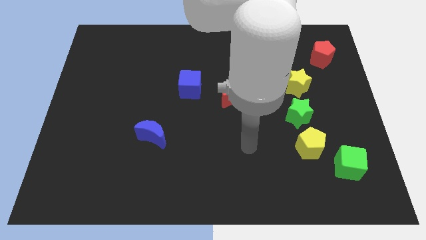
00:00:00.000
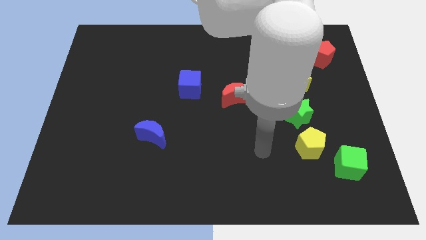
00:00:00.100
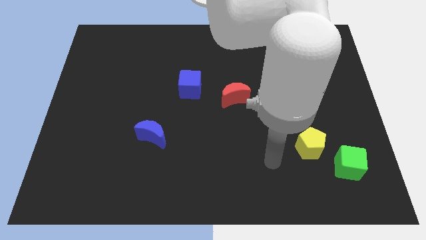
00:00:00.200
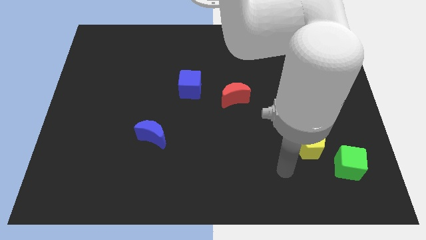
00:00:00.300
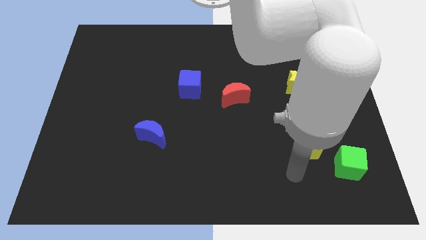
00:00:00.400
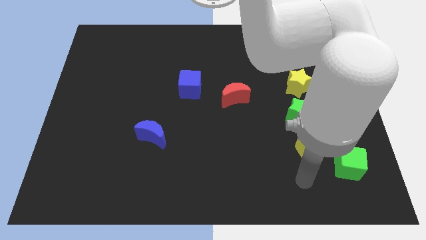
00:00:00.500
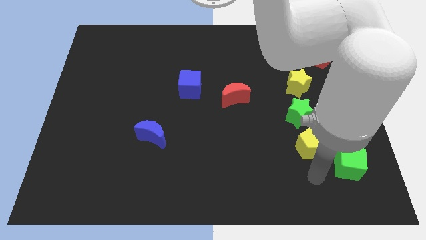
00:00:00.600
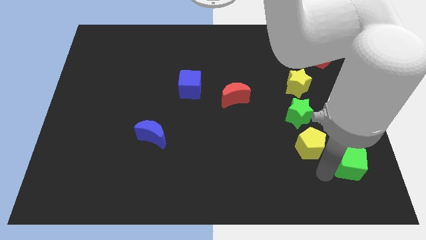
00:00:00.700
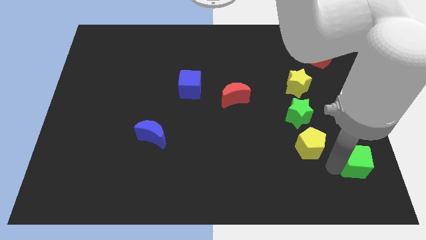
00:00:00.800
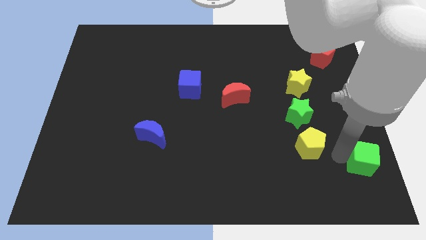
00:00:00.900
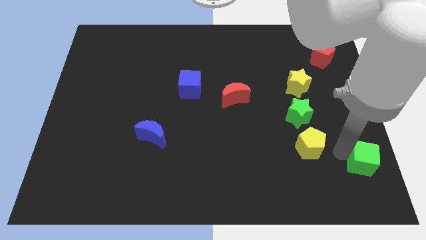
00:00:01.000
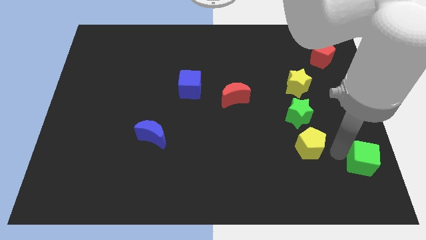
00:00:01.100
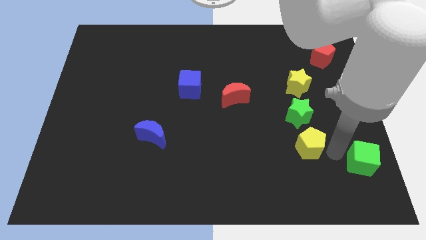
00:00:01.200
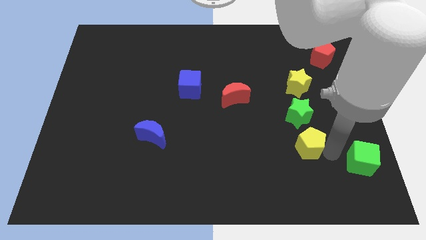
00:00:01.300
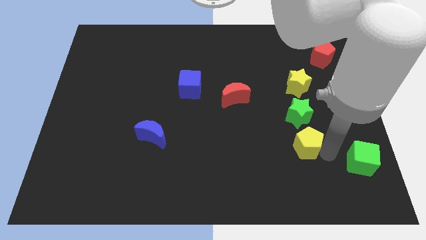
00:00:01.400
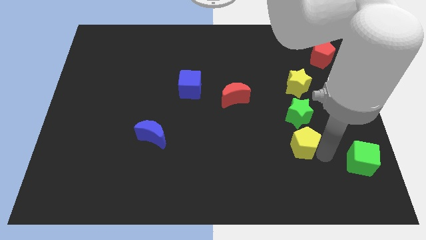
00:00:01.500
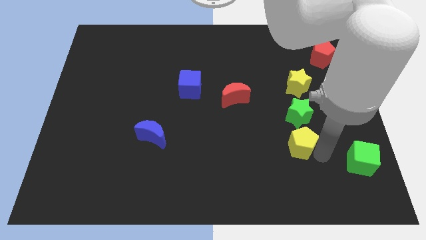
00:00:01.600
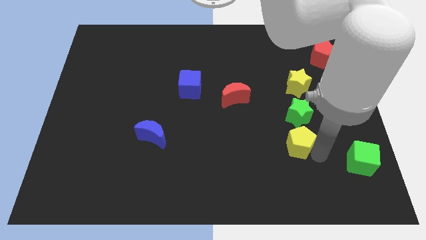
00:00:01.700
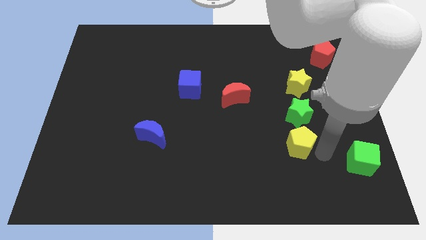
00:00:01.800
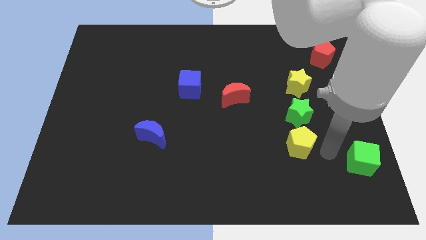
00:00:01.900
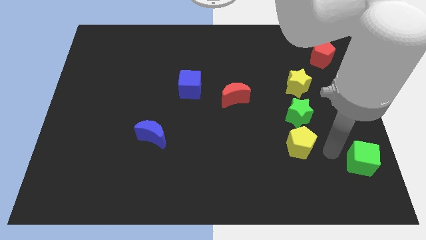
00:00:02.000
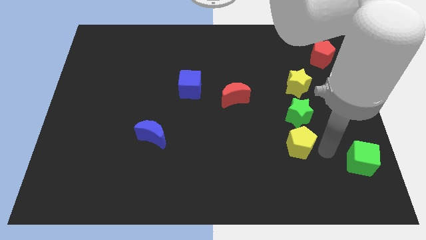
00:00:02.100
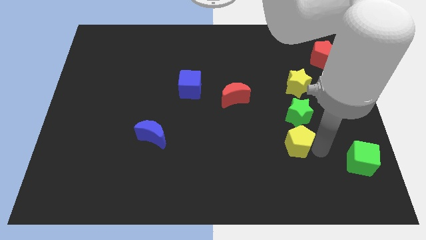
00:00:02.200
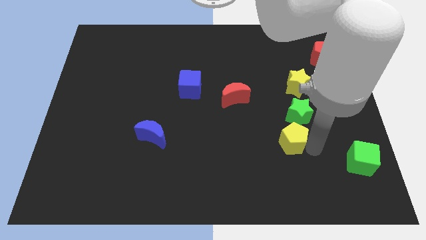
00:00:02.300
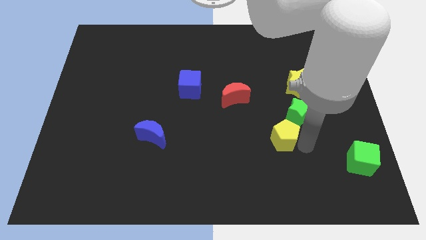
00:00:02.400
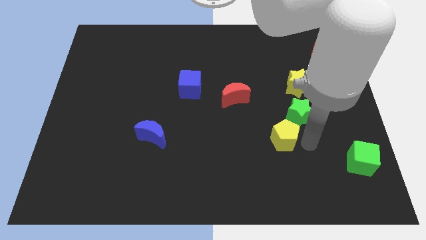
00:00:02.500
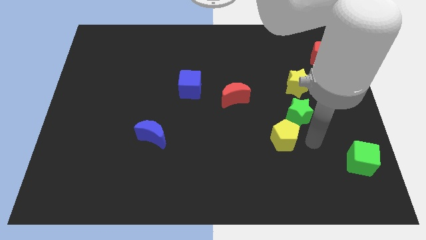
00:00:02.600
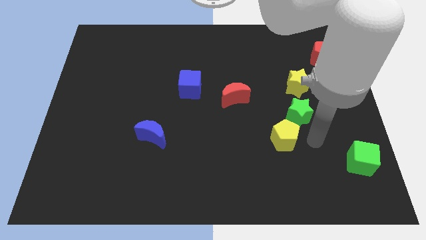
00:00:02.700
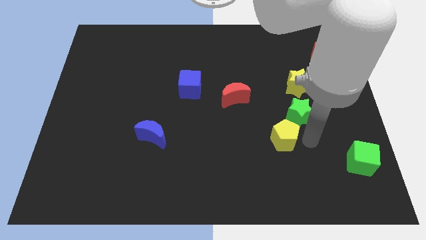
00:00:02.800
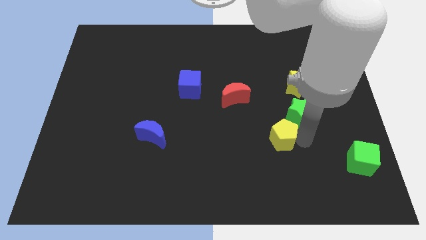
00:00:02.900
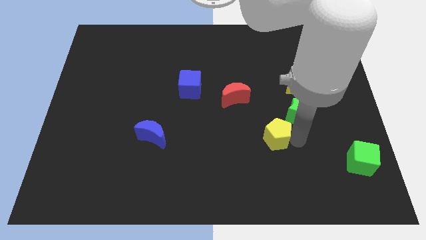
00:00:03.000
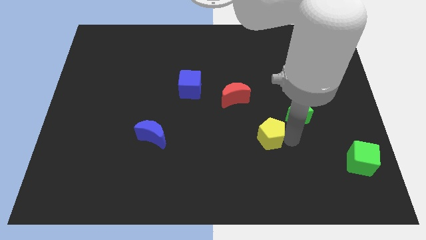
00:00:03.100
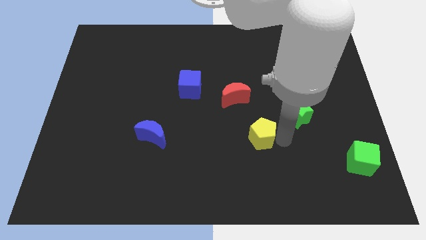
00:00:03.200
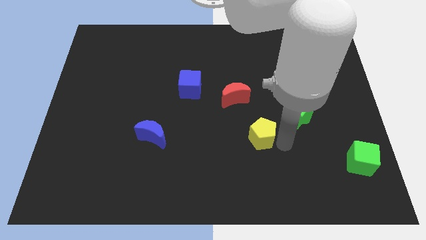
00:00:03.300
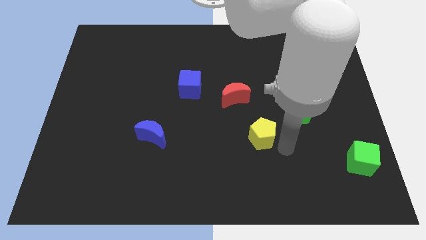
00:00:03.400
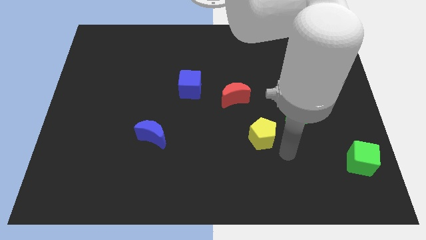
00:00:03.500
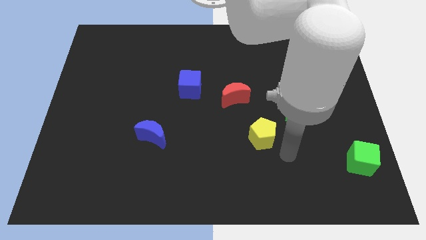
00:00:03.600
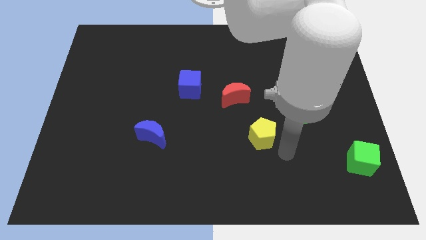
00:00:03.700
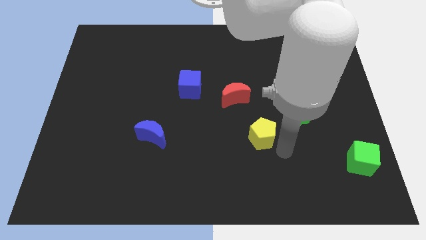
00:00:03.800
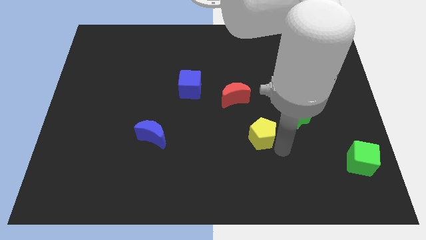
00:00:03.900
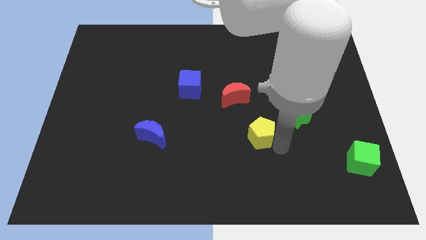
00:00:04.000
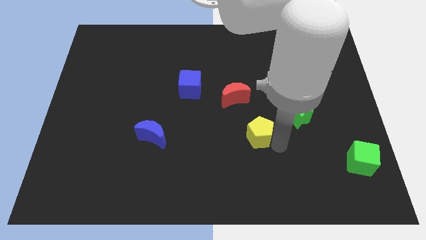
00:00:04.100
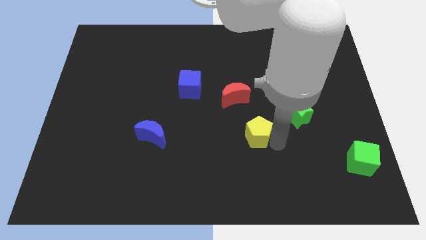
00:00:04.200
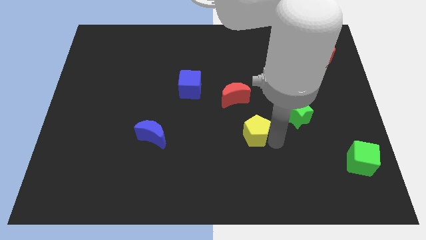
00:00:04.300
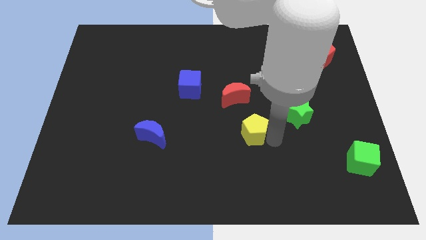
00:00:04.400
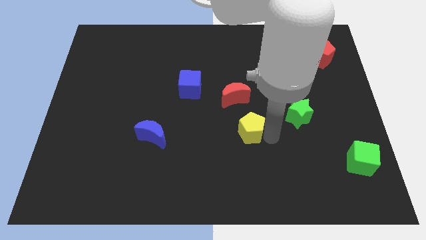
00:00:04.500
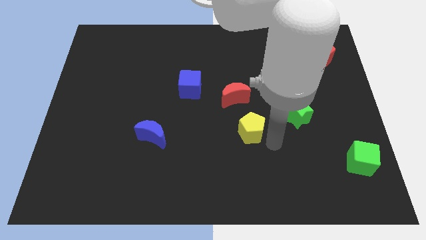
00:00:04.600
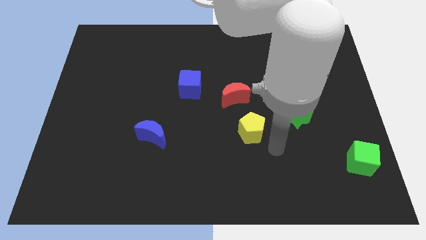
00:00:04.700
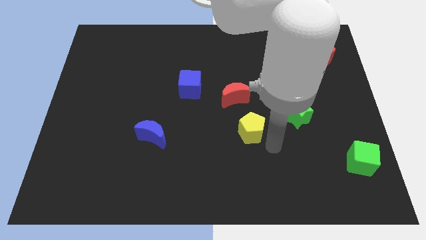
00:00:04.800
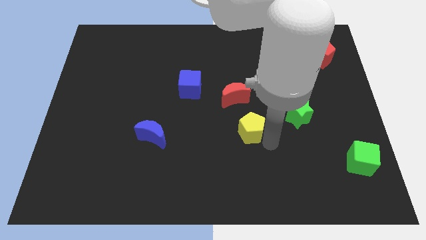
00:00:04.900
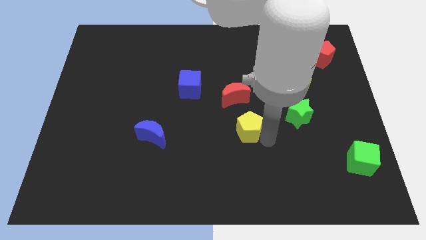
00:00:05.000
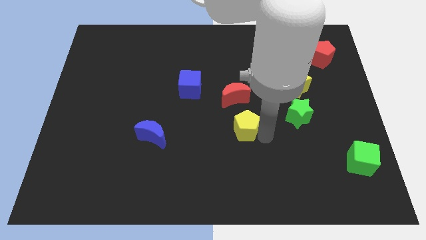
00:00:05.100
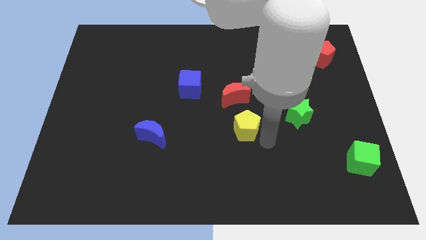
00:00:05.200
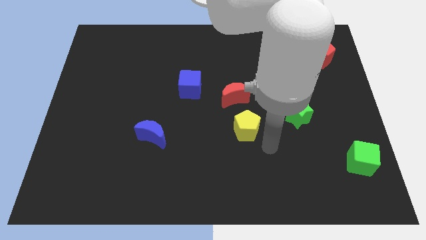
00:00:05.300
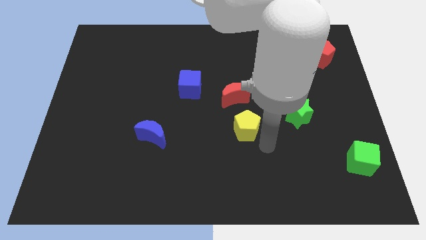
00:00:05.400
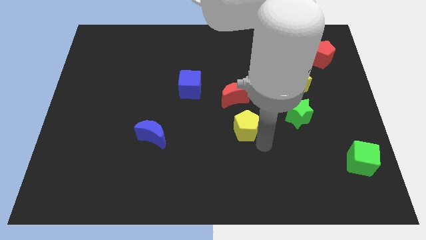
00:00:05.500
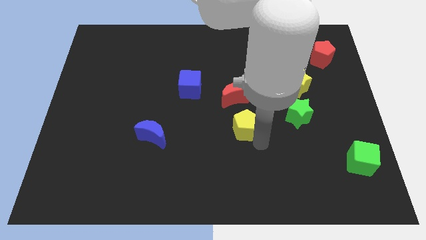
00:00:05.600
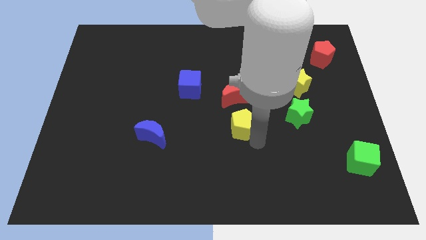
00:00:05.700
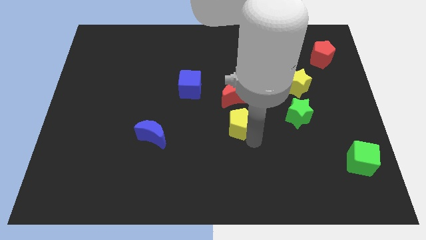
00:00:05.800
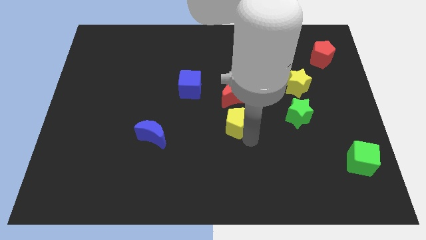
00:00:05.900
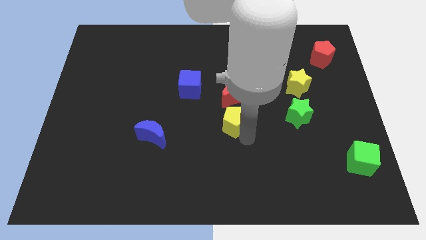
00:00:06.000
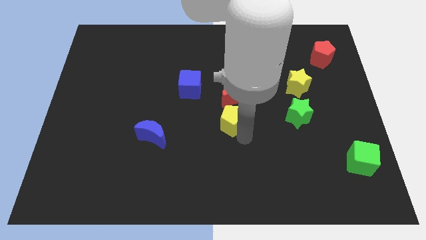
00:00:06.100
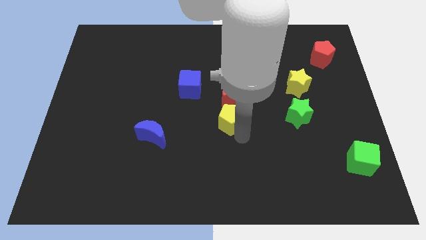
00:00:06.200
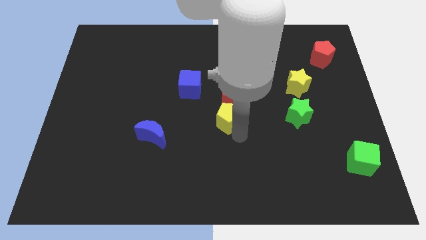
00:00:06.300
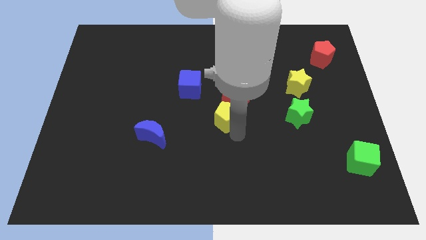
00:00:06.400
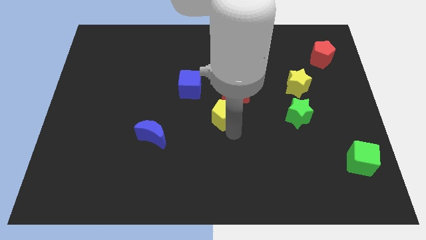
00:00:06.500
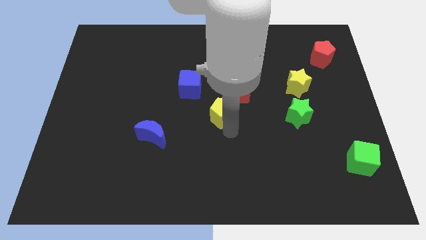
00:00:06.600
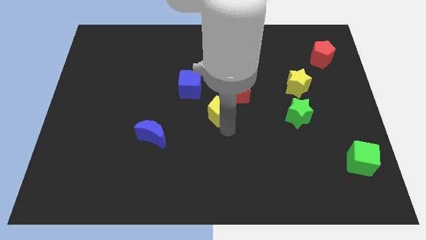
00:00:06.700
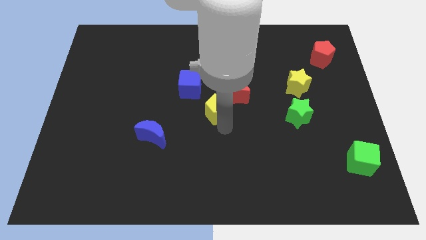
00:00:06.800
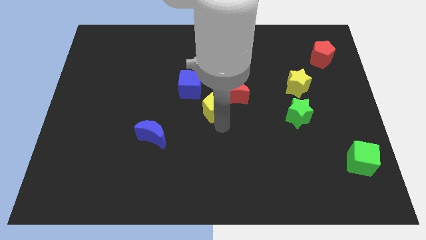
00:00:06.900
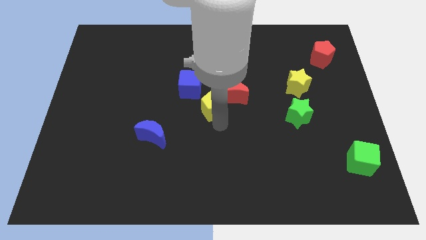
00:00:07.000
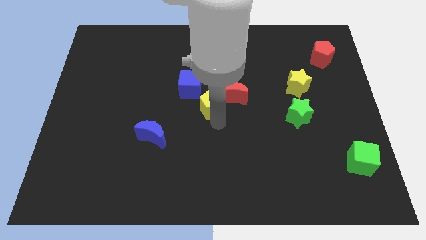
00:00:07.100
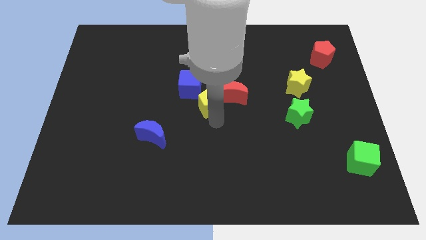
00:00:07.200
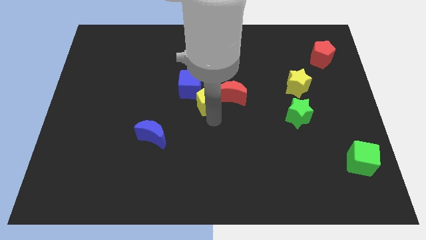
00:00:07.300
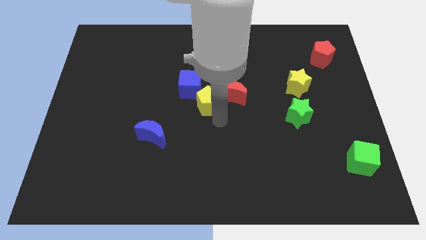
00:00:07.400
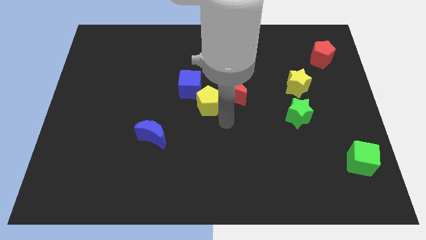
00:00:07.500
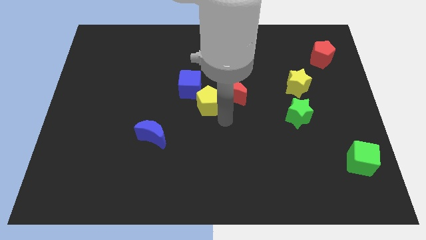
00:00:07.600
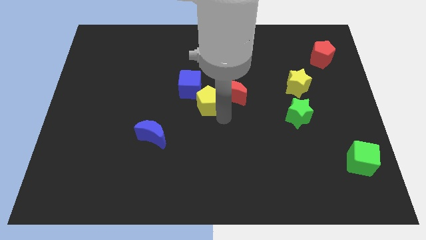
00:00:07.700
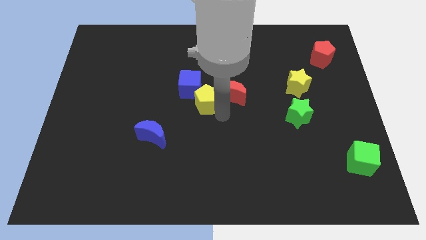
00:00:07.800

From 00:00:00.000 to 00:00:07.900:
push the yellow pentagon to the blue cube
